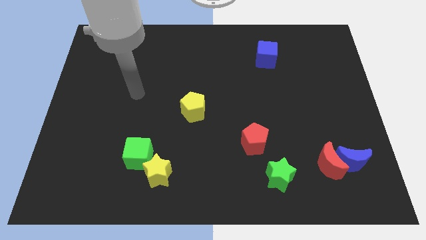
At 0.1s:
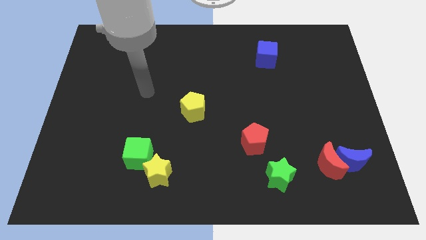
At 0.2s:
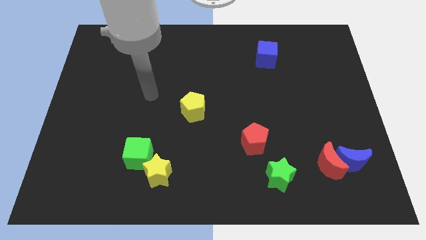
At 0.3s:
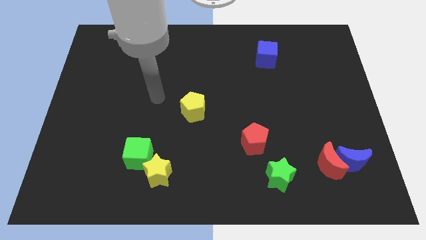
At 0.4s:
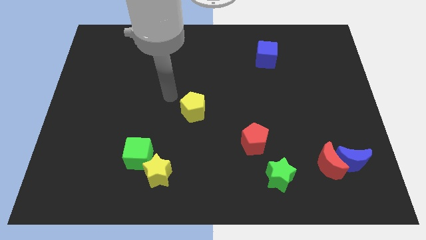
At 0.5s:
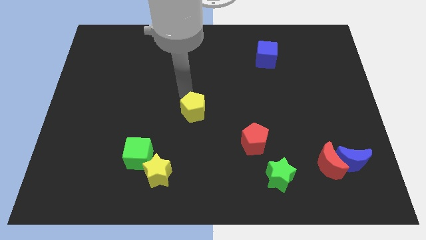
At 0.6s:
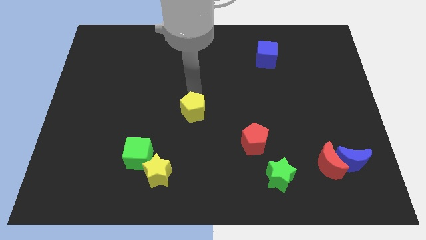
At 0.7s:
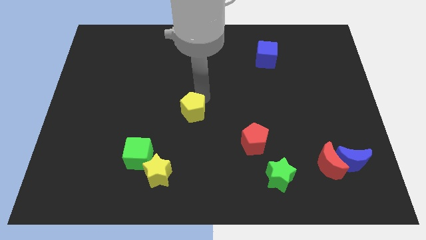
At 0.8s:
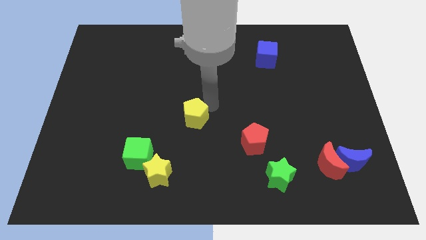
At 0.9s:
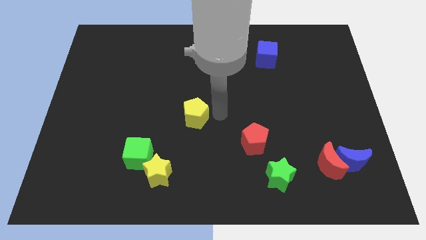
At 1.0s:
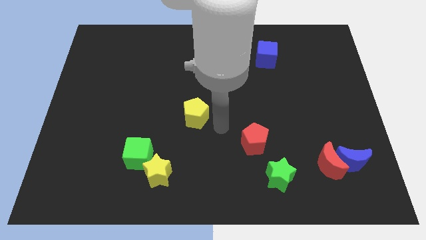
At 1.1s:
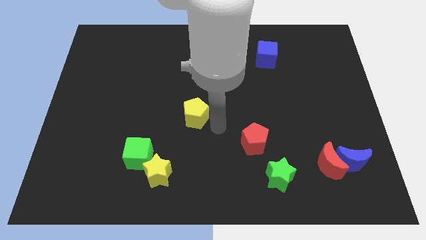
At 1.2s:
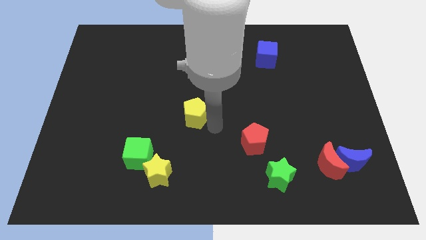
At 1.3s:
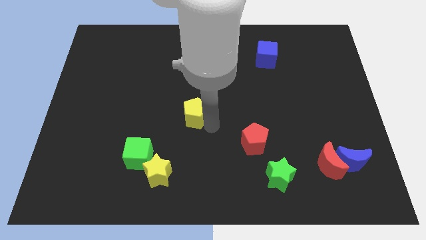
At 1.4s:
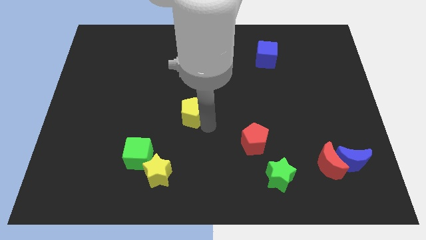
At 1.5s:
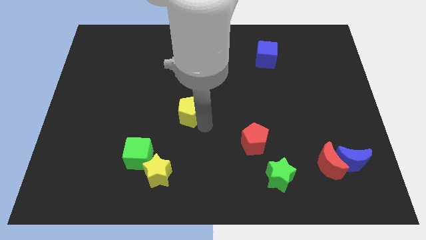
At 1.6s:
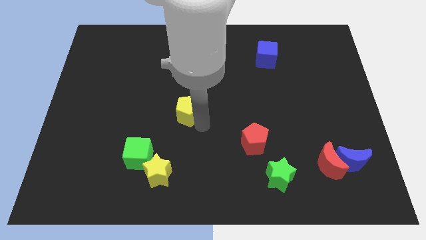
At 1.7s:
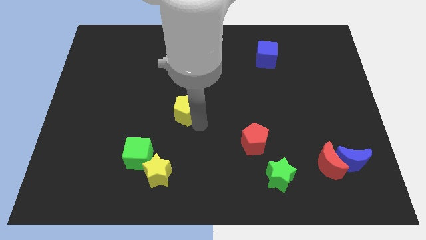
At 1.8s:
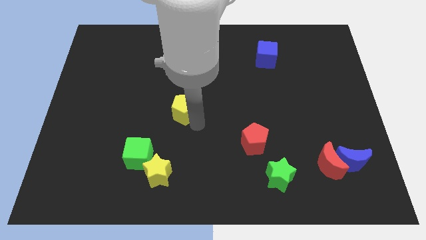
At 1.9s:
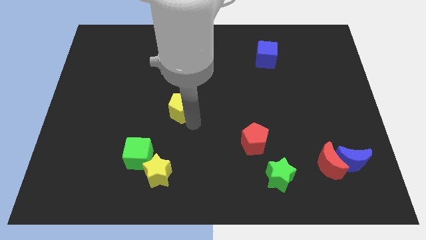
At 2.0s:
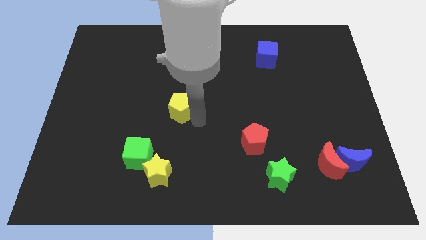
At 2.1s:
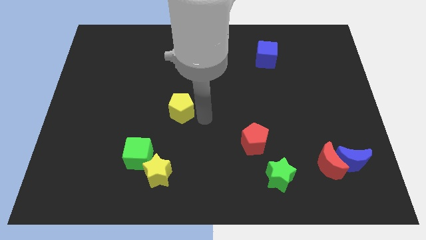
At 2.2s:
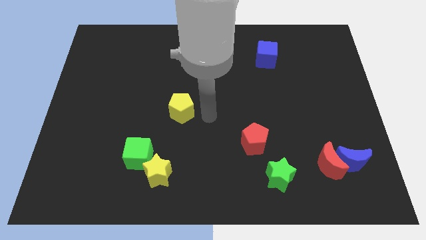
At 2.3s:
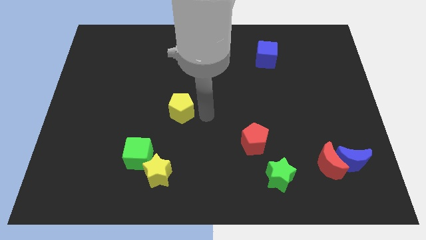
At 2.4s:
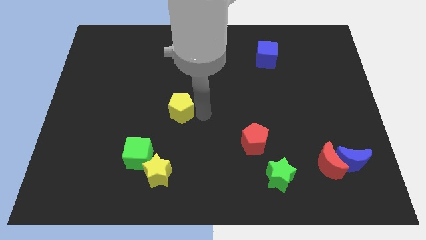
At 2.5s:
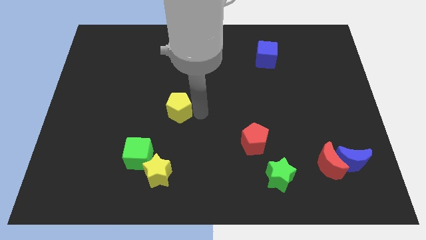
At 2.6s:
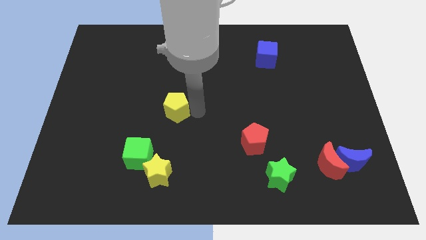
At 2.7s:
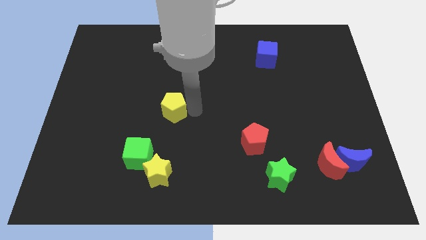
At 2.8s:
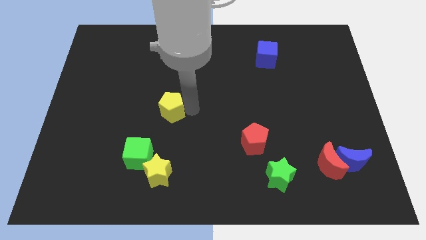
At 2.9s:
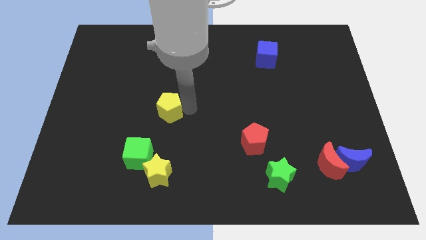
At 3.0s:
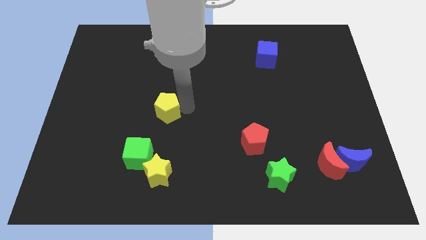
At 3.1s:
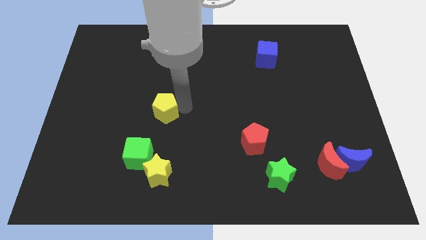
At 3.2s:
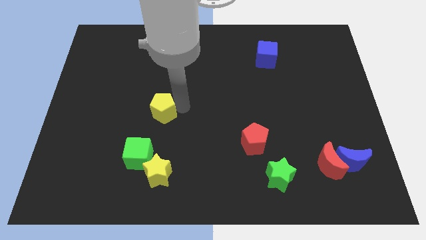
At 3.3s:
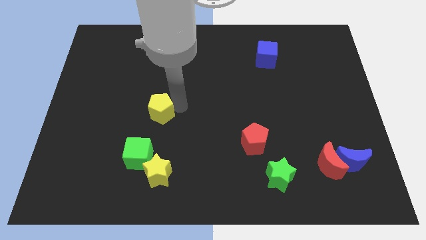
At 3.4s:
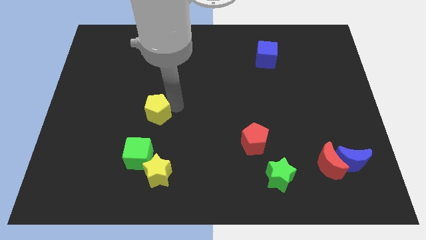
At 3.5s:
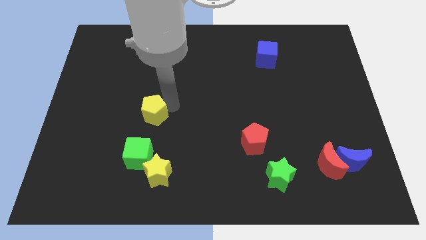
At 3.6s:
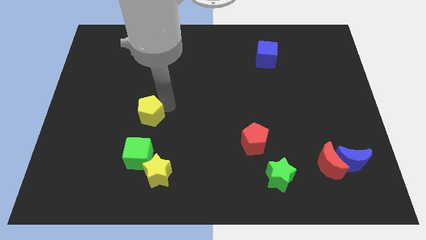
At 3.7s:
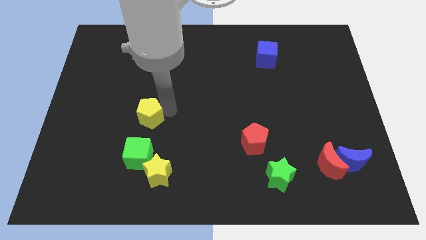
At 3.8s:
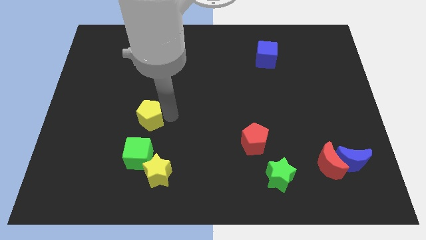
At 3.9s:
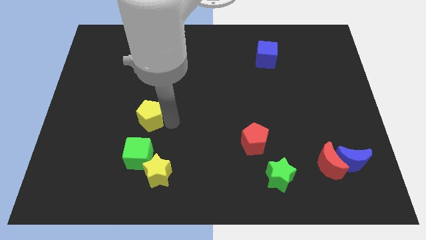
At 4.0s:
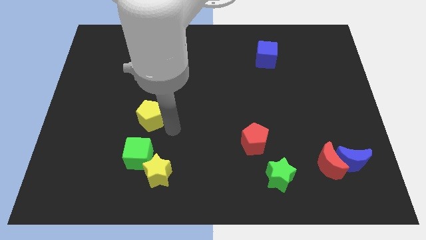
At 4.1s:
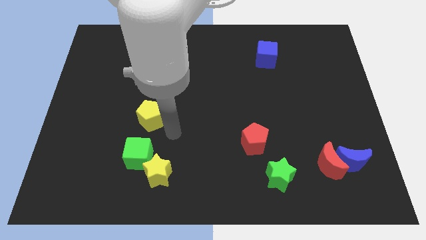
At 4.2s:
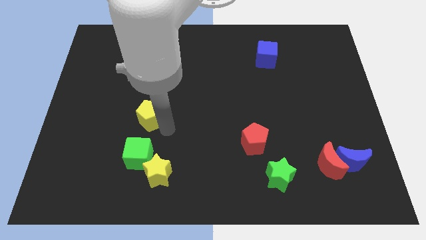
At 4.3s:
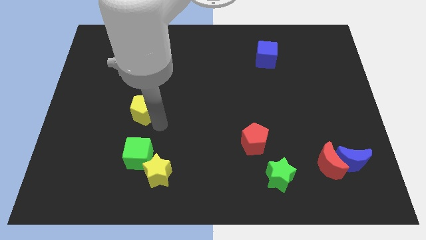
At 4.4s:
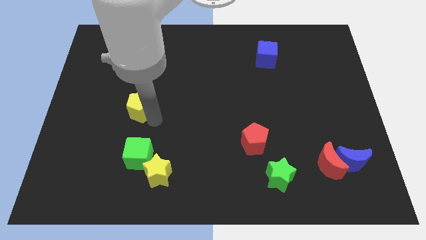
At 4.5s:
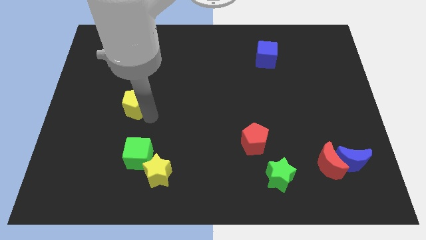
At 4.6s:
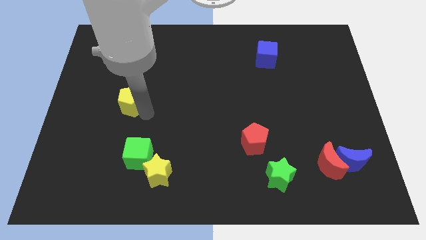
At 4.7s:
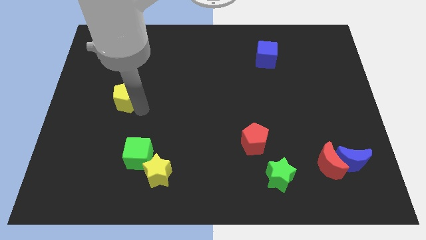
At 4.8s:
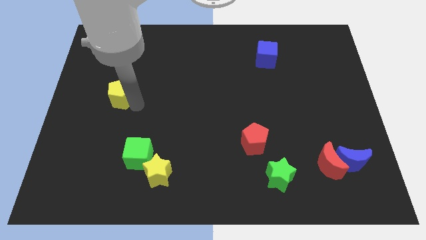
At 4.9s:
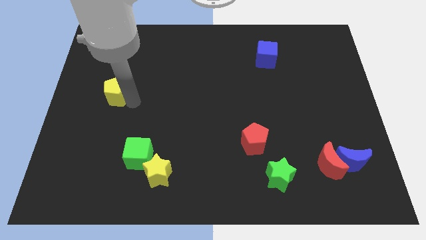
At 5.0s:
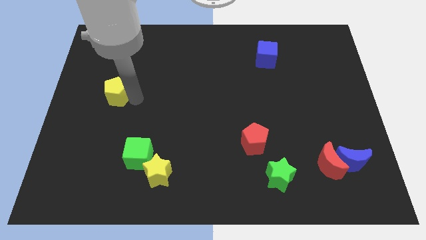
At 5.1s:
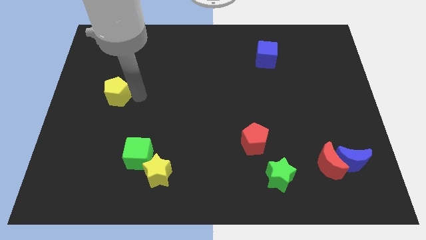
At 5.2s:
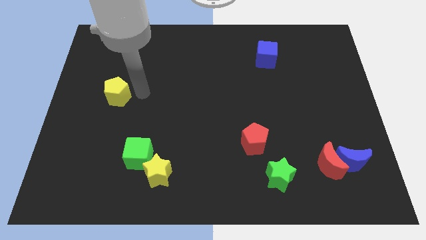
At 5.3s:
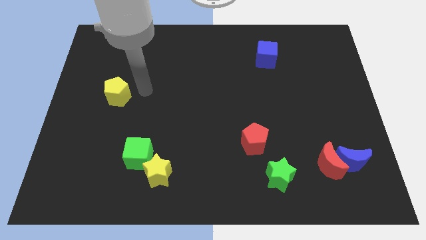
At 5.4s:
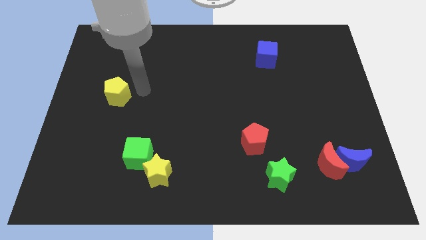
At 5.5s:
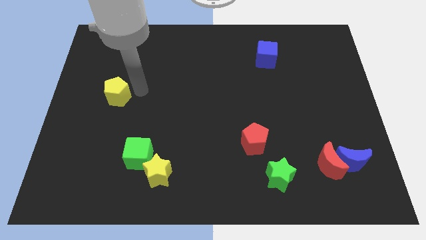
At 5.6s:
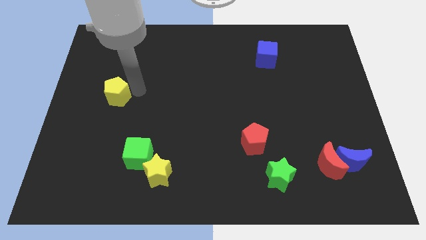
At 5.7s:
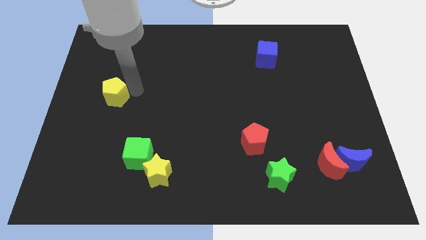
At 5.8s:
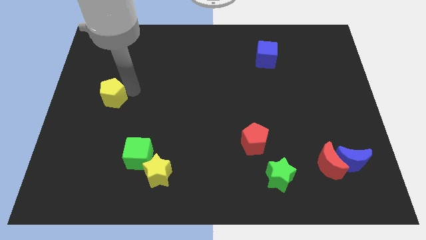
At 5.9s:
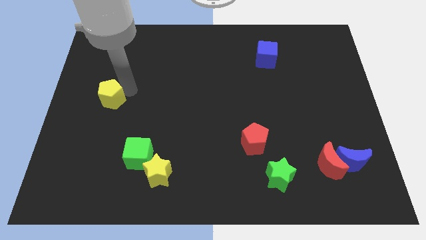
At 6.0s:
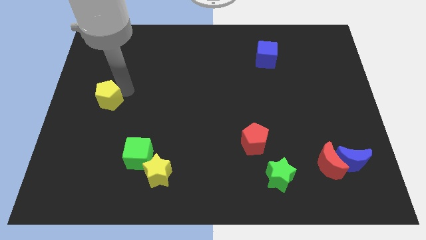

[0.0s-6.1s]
move the yellow pentagon to the left side of the board

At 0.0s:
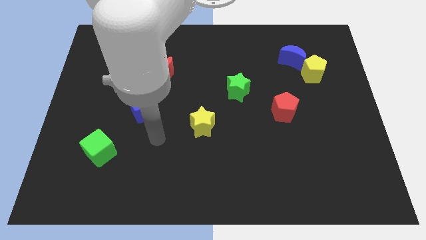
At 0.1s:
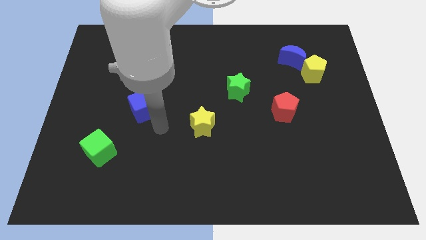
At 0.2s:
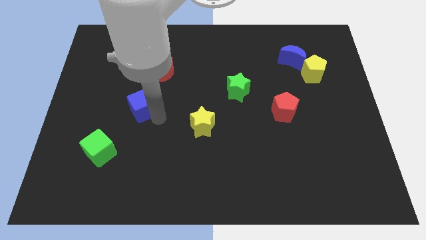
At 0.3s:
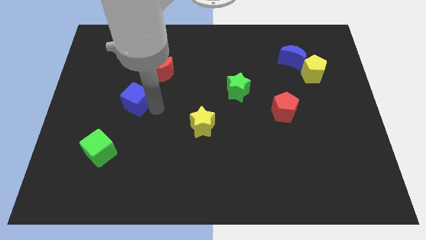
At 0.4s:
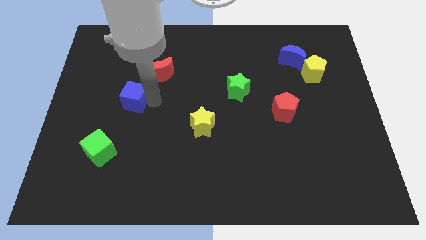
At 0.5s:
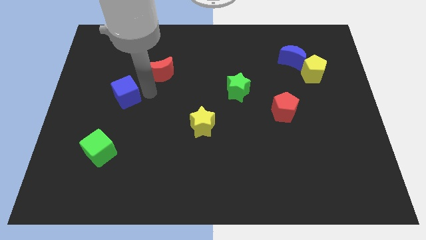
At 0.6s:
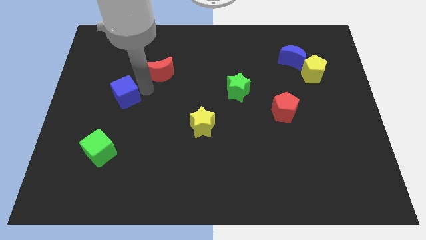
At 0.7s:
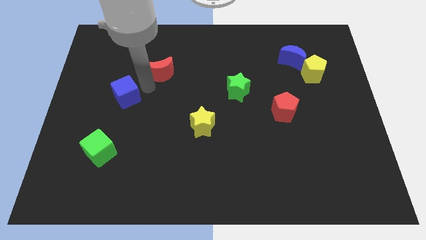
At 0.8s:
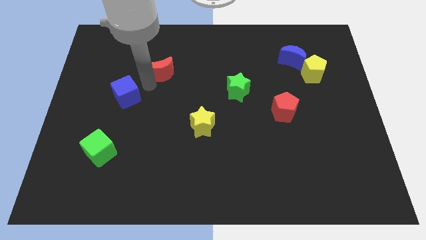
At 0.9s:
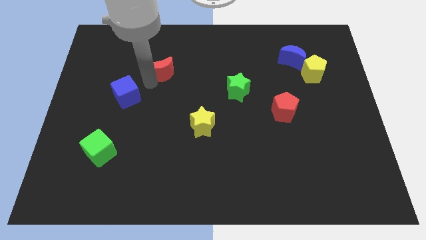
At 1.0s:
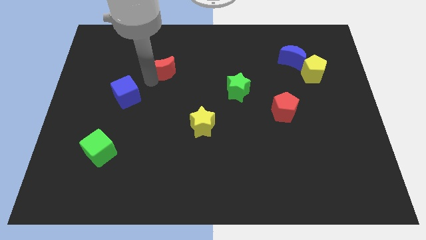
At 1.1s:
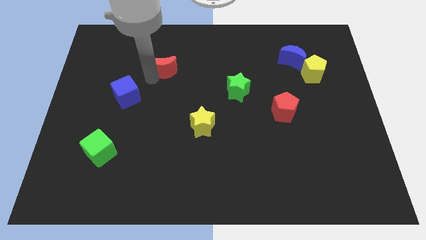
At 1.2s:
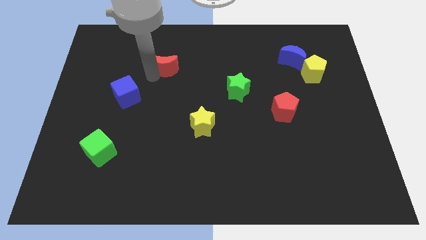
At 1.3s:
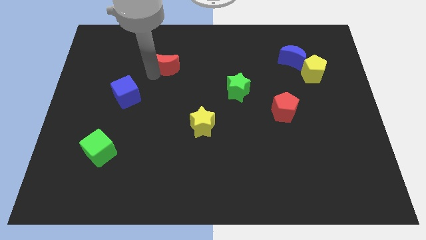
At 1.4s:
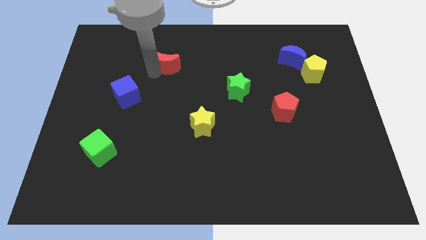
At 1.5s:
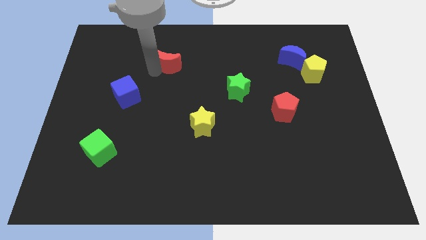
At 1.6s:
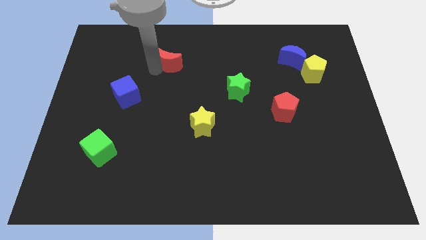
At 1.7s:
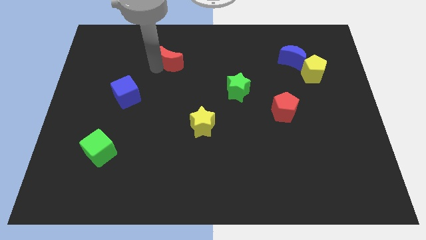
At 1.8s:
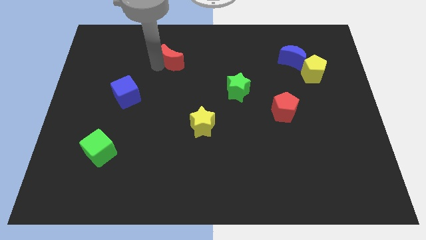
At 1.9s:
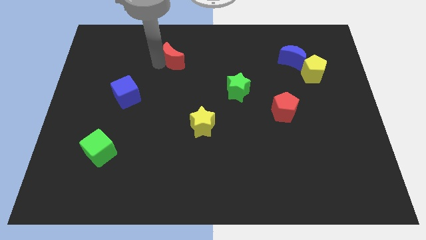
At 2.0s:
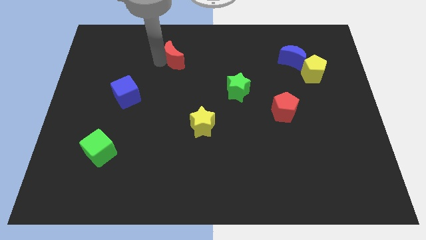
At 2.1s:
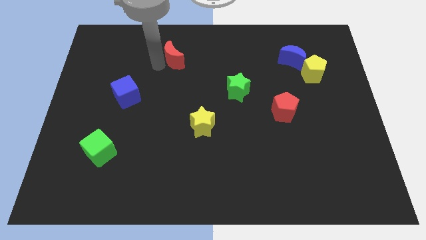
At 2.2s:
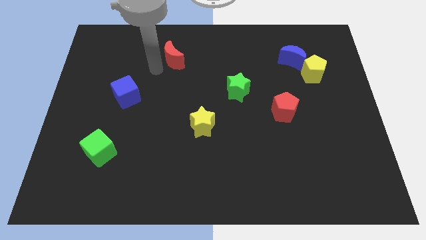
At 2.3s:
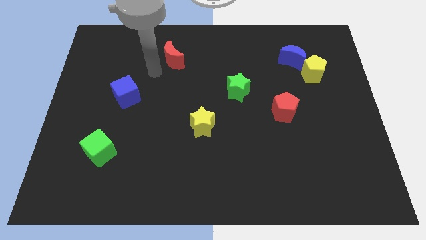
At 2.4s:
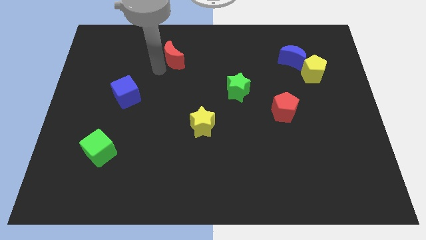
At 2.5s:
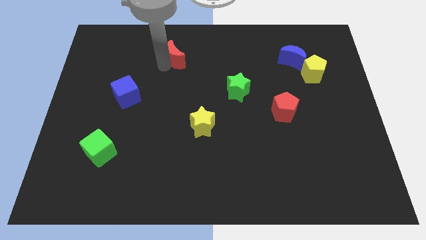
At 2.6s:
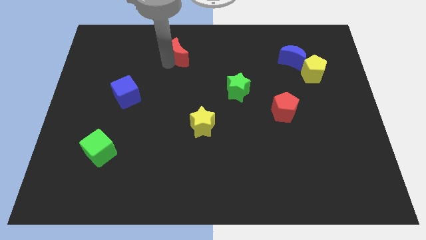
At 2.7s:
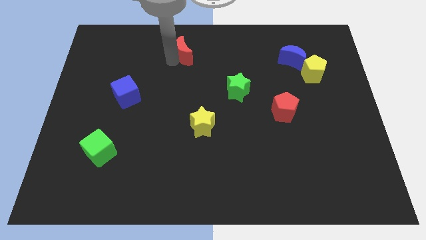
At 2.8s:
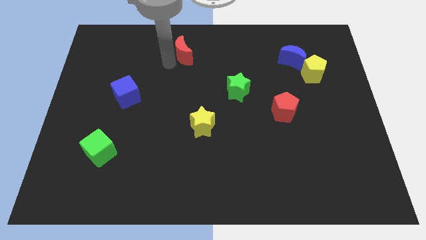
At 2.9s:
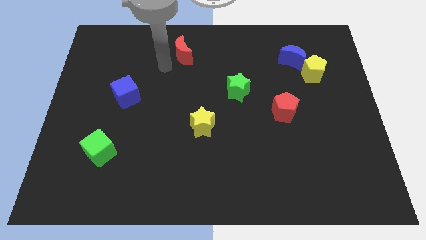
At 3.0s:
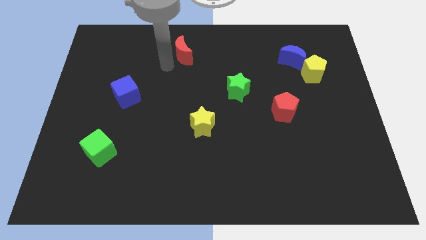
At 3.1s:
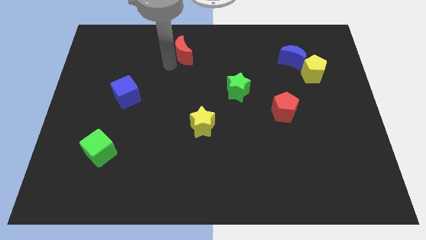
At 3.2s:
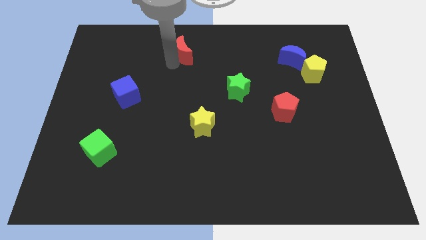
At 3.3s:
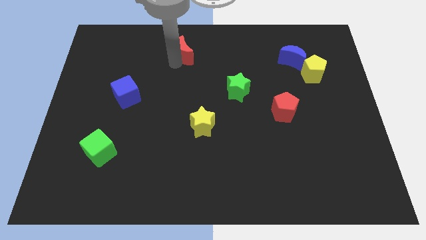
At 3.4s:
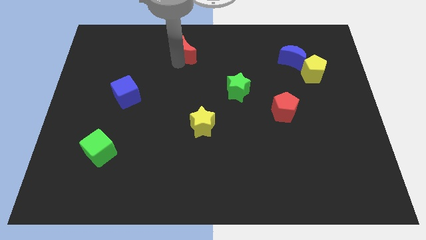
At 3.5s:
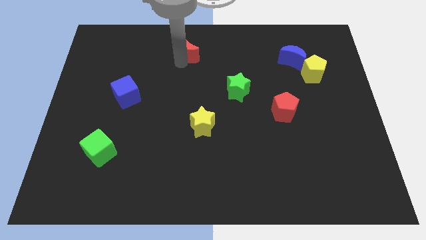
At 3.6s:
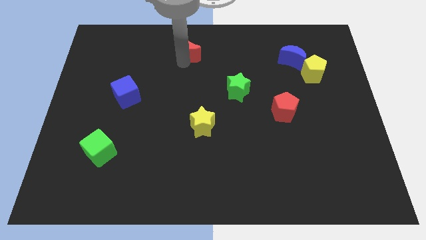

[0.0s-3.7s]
slide the red moon to the top side
